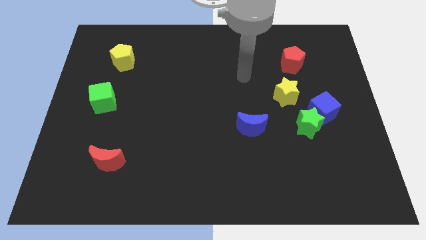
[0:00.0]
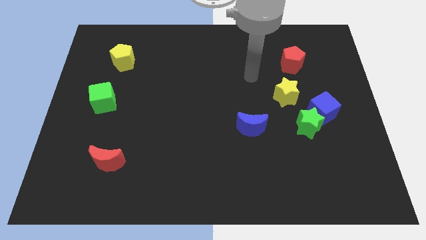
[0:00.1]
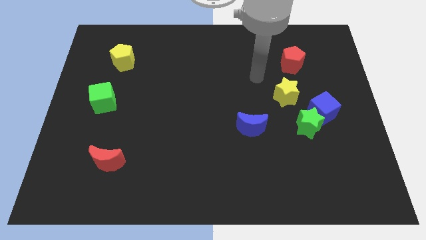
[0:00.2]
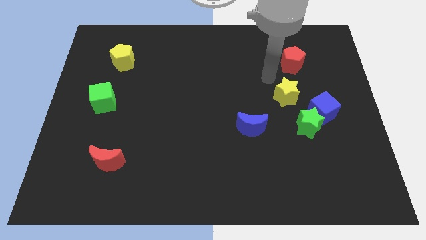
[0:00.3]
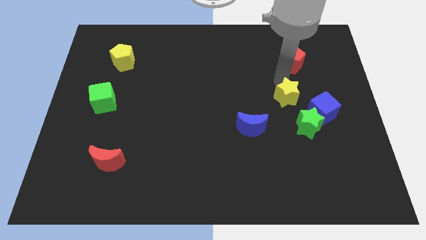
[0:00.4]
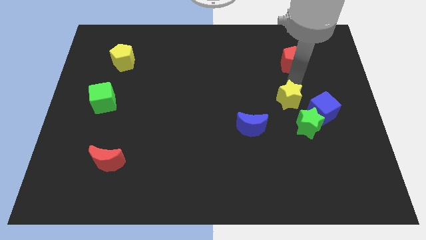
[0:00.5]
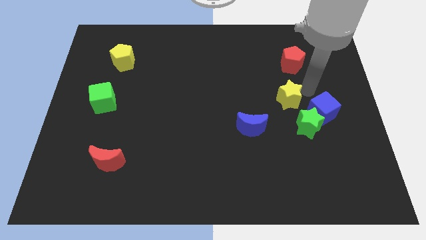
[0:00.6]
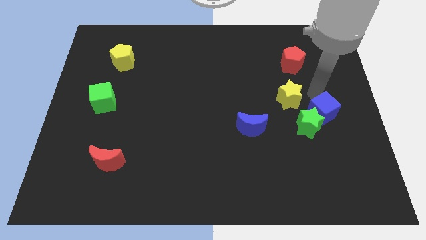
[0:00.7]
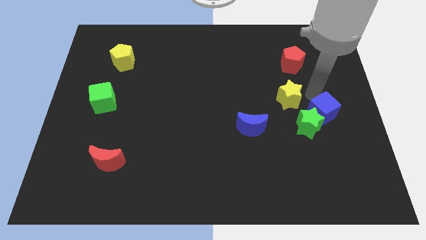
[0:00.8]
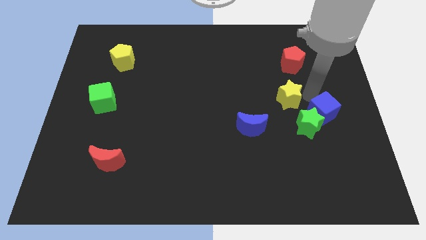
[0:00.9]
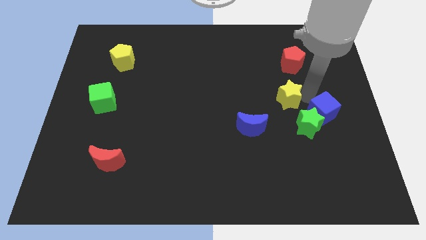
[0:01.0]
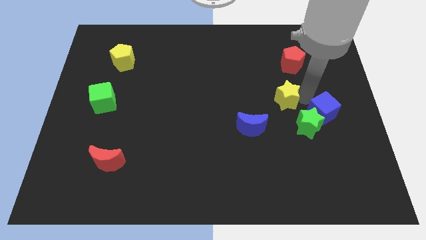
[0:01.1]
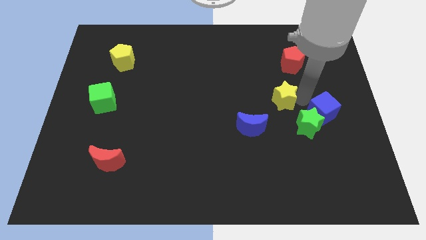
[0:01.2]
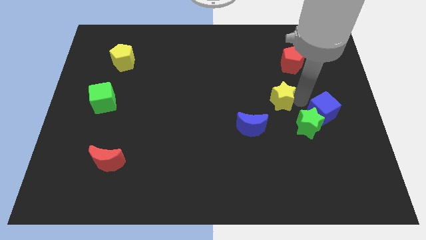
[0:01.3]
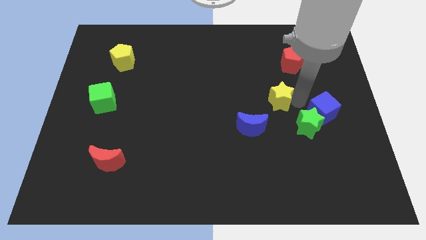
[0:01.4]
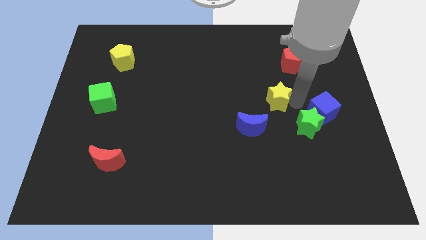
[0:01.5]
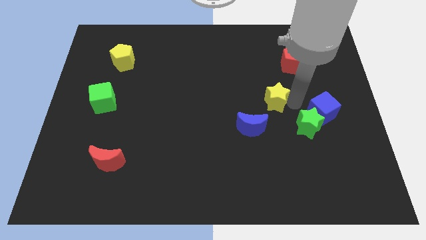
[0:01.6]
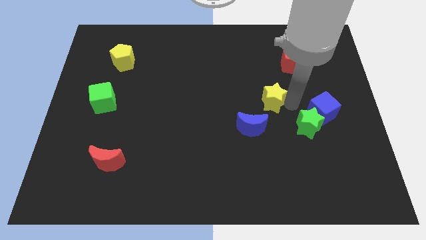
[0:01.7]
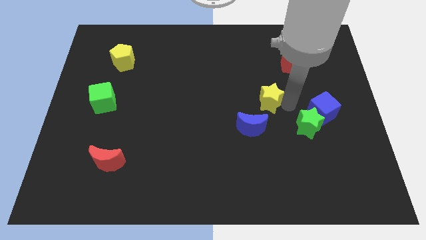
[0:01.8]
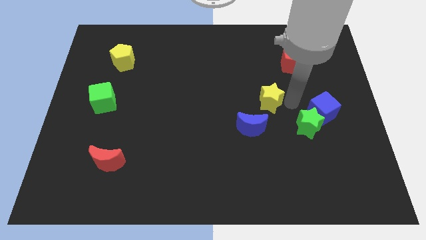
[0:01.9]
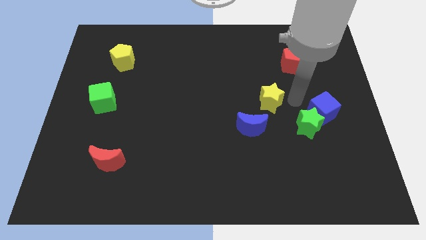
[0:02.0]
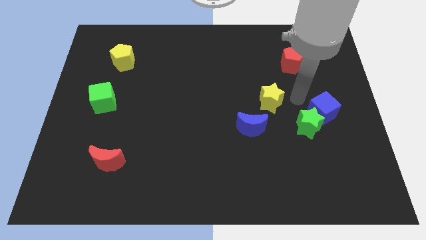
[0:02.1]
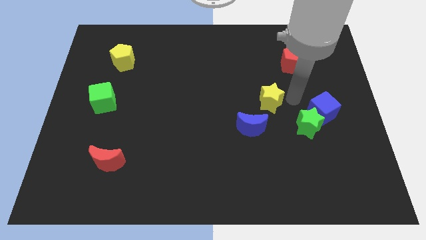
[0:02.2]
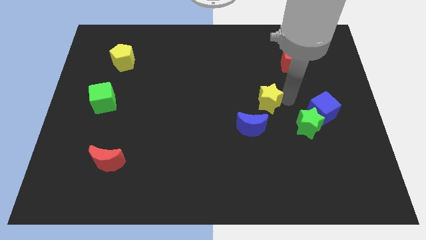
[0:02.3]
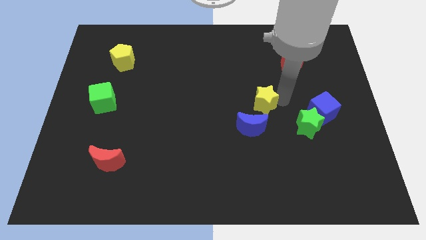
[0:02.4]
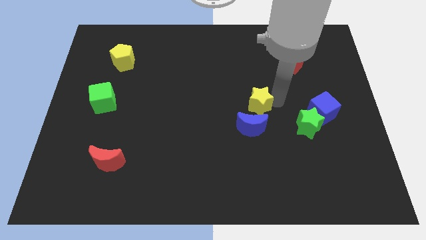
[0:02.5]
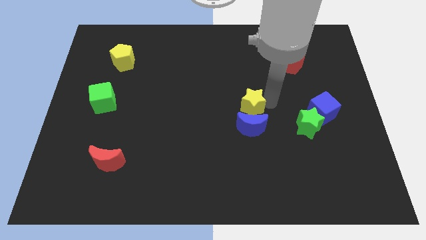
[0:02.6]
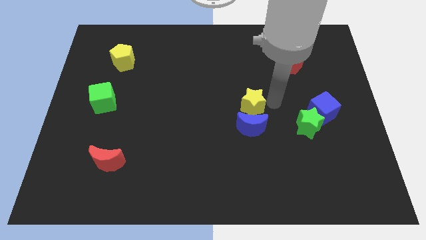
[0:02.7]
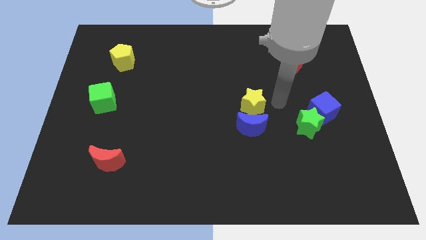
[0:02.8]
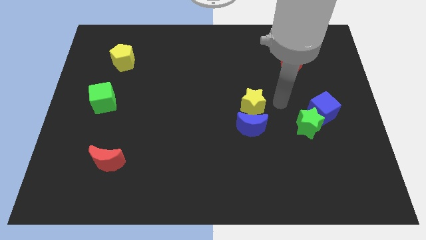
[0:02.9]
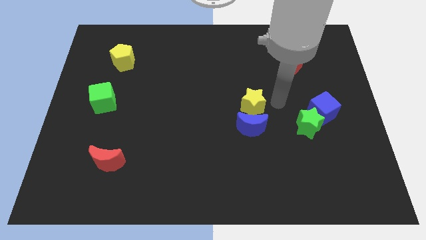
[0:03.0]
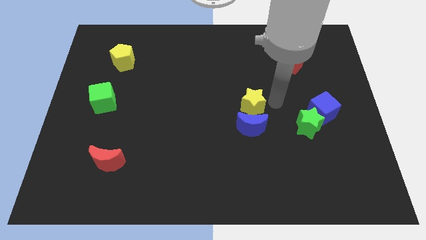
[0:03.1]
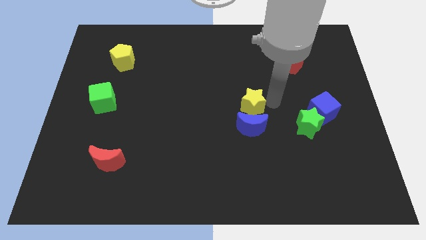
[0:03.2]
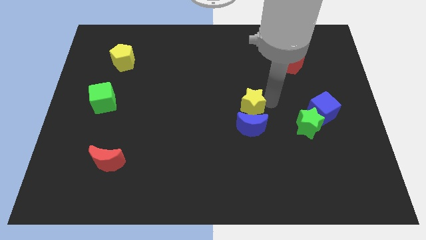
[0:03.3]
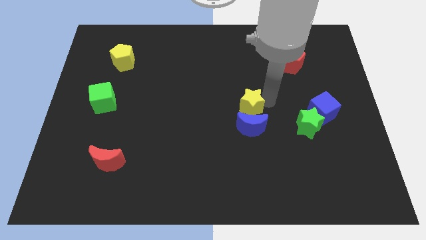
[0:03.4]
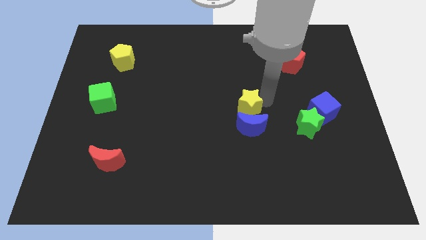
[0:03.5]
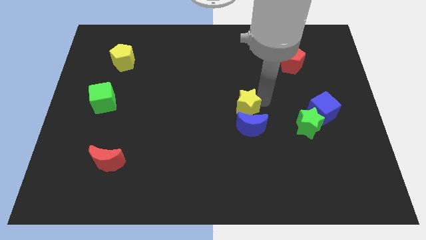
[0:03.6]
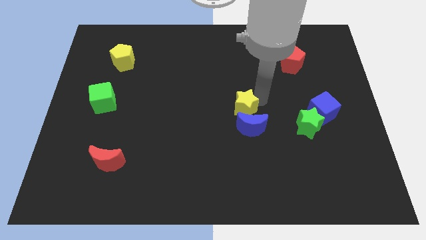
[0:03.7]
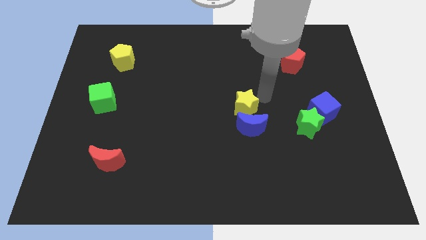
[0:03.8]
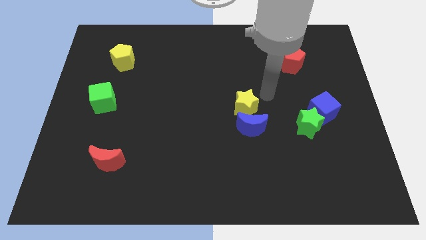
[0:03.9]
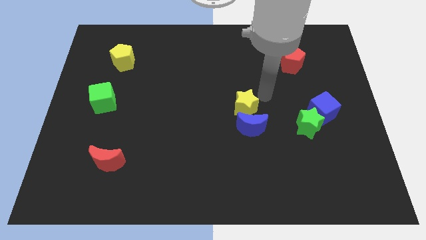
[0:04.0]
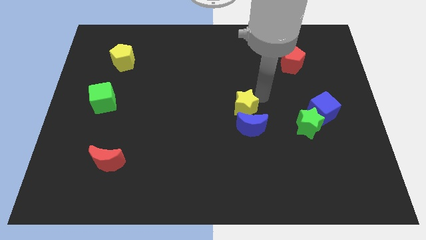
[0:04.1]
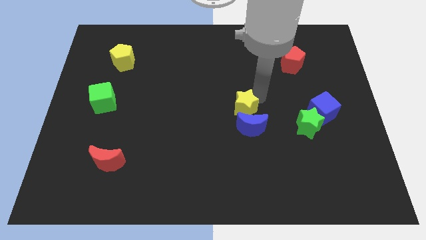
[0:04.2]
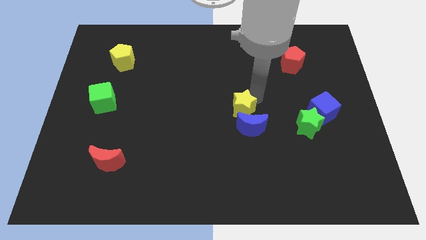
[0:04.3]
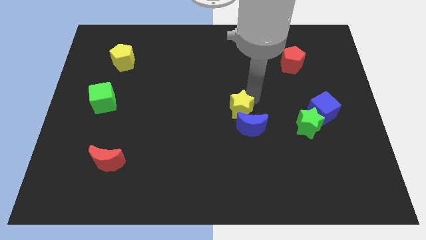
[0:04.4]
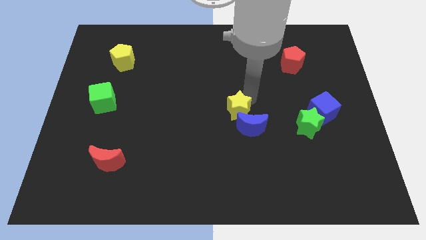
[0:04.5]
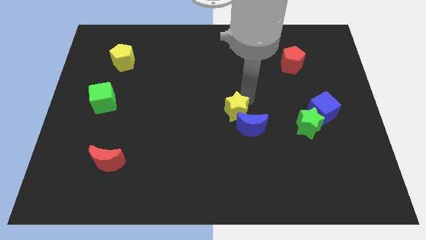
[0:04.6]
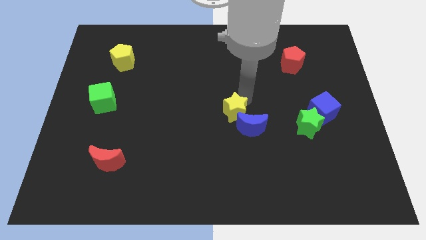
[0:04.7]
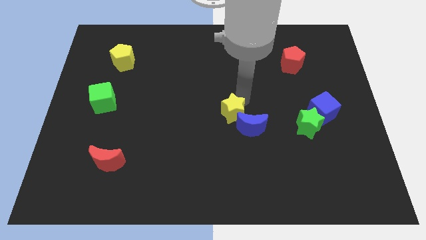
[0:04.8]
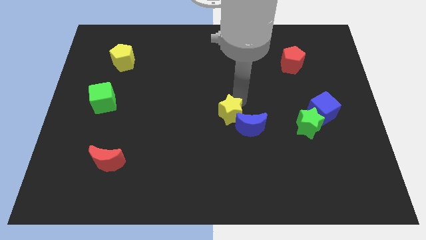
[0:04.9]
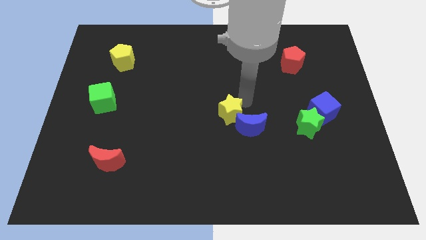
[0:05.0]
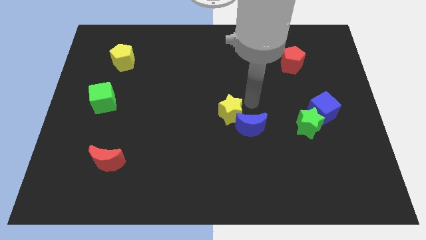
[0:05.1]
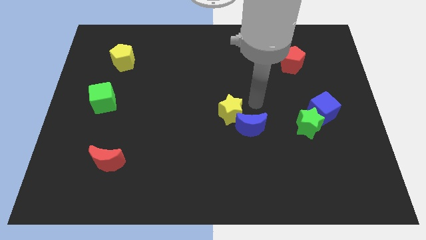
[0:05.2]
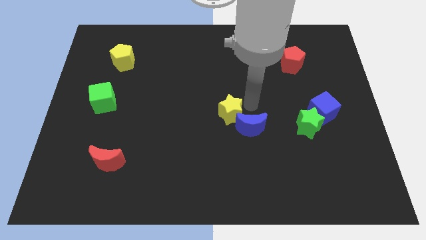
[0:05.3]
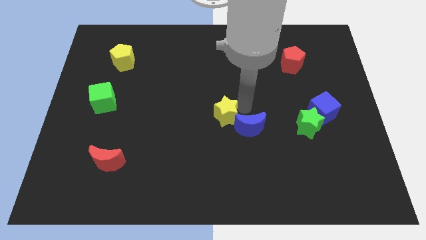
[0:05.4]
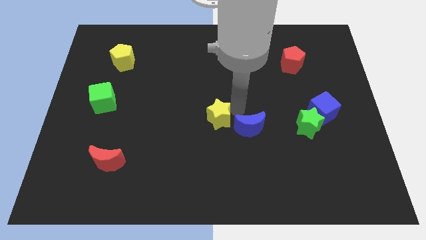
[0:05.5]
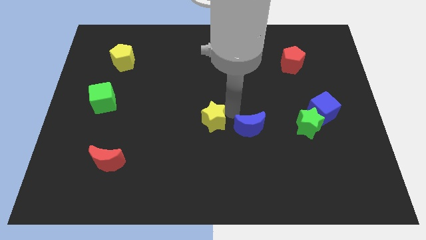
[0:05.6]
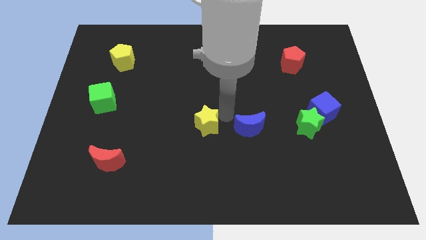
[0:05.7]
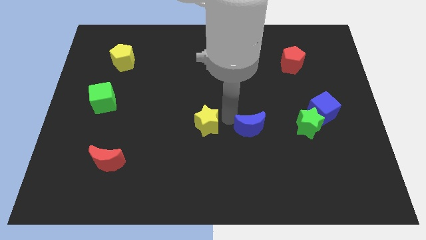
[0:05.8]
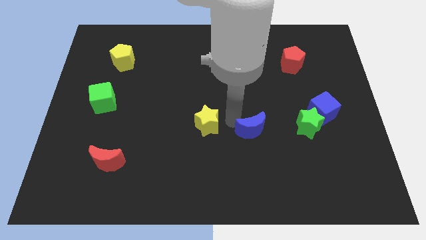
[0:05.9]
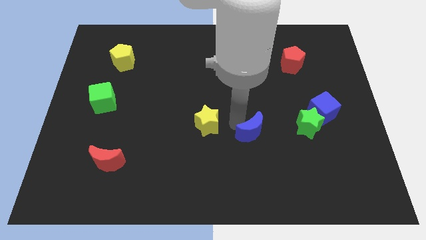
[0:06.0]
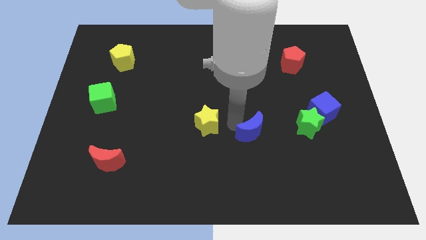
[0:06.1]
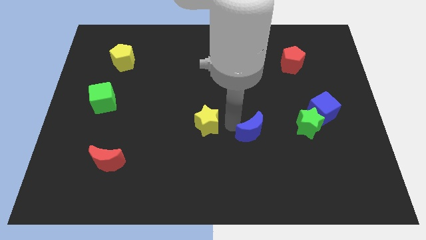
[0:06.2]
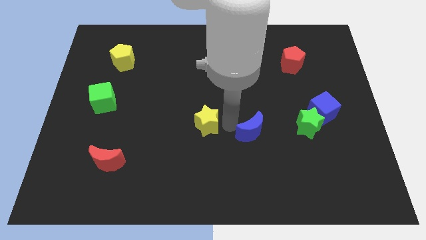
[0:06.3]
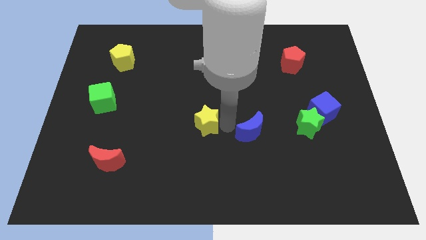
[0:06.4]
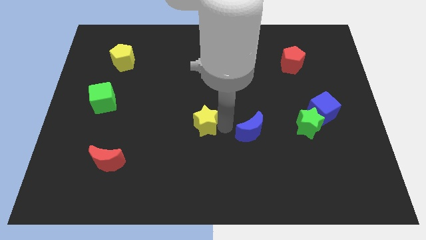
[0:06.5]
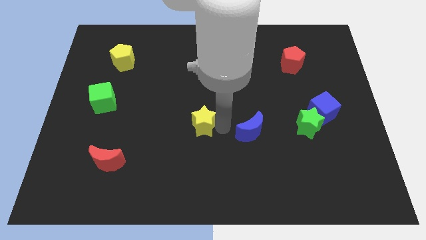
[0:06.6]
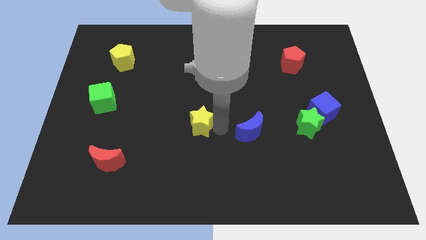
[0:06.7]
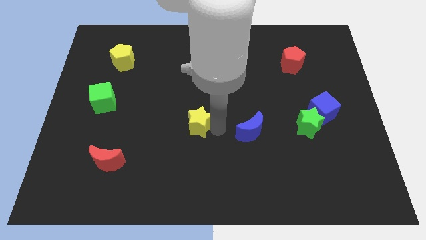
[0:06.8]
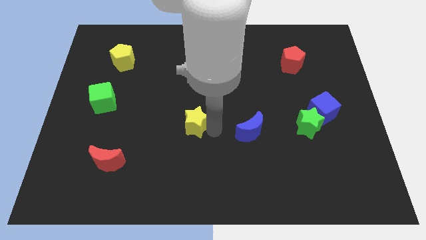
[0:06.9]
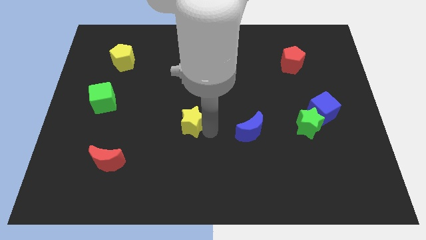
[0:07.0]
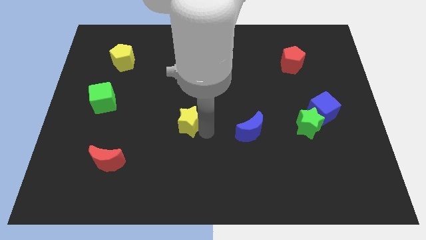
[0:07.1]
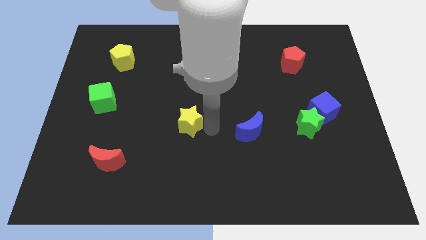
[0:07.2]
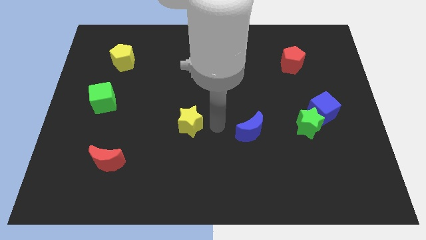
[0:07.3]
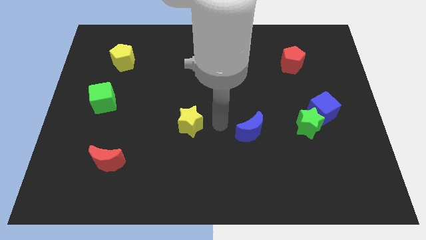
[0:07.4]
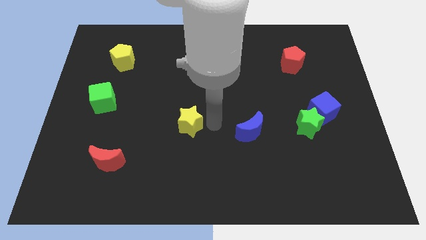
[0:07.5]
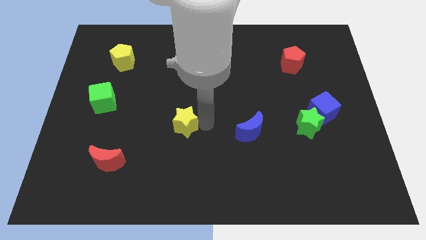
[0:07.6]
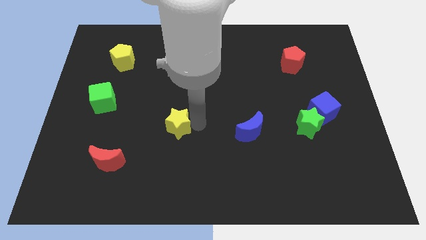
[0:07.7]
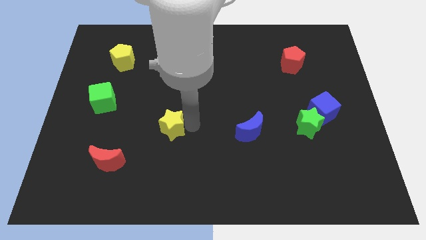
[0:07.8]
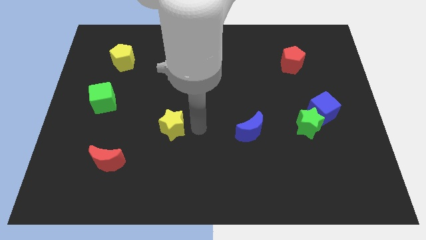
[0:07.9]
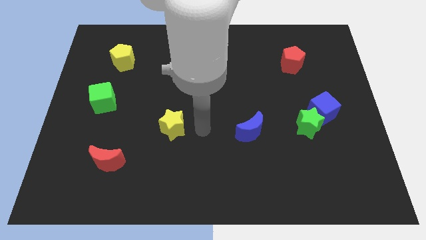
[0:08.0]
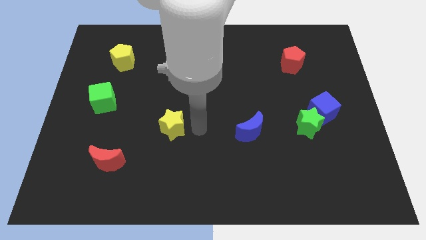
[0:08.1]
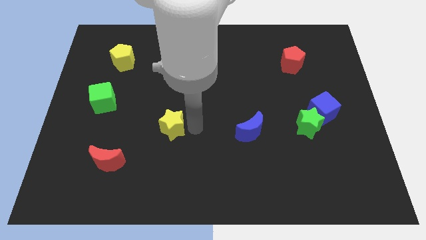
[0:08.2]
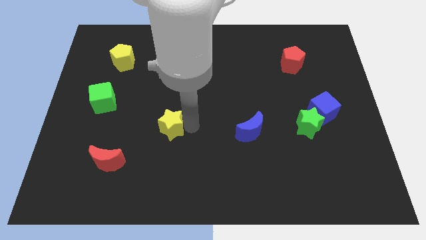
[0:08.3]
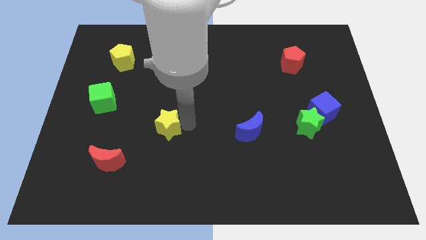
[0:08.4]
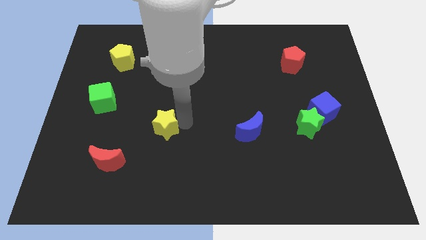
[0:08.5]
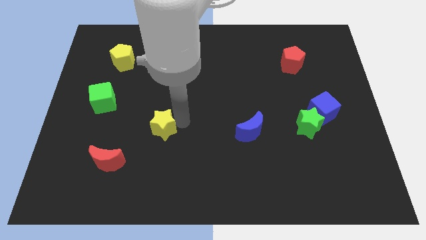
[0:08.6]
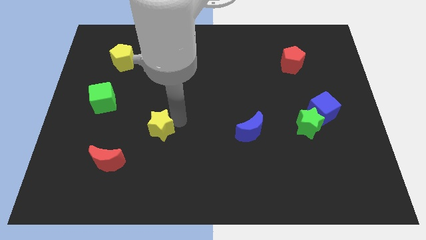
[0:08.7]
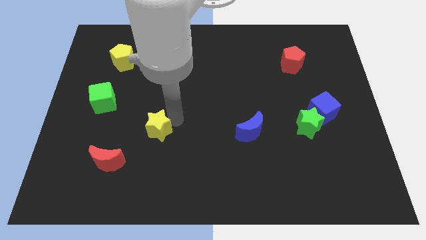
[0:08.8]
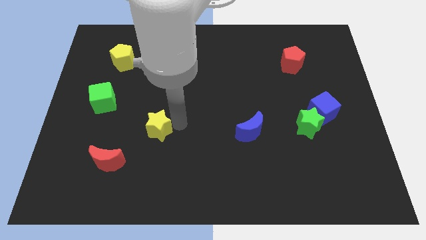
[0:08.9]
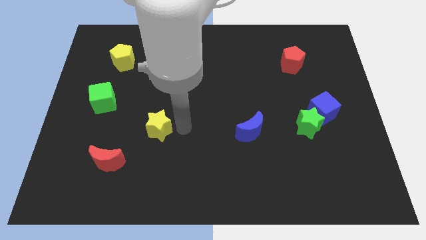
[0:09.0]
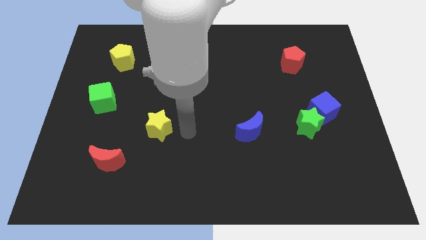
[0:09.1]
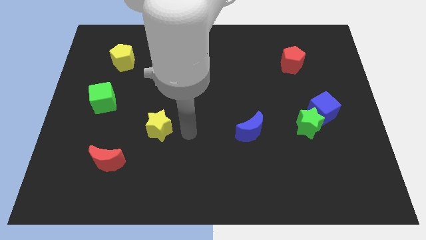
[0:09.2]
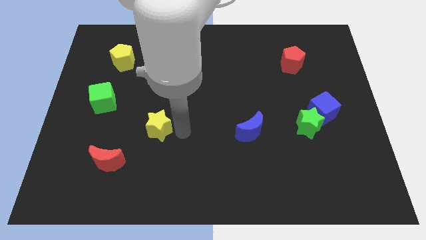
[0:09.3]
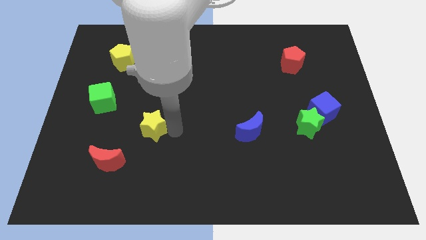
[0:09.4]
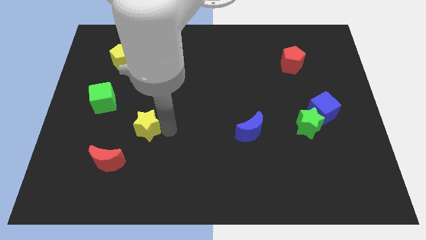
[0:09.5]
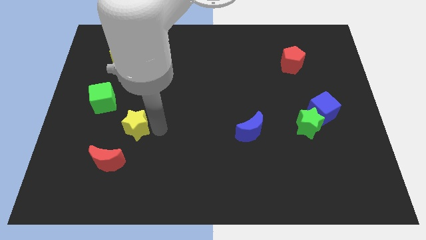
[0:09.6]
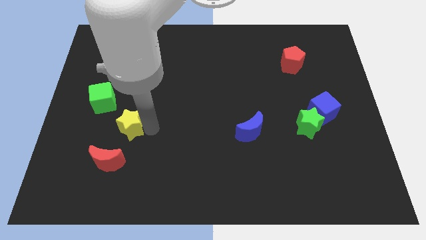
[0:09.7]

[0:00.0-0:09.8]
put the yellow star above the red moon
